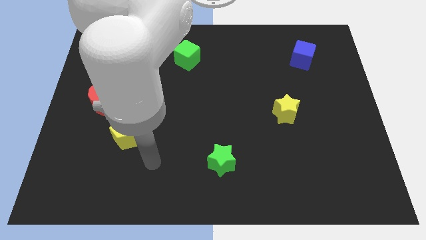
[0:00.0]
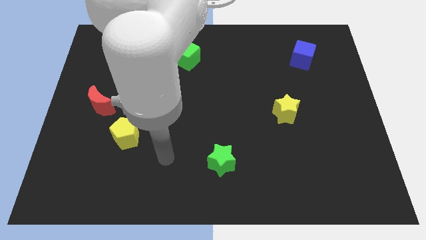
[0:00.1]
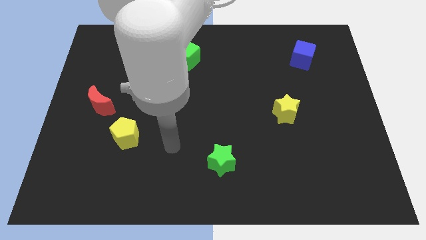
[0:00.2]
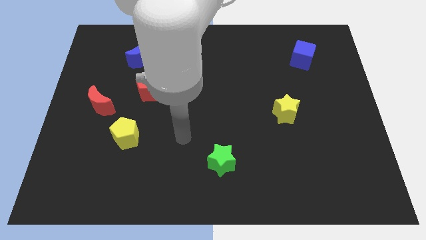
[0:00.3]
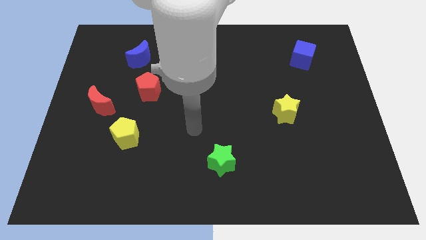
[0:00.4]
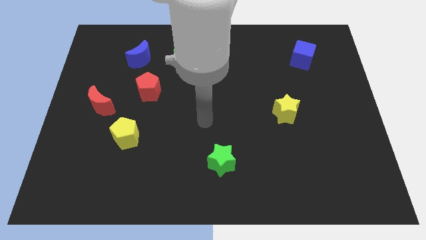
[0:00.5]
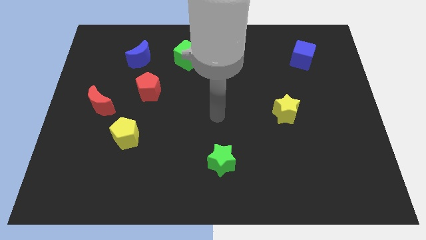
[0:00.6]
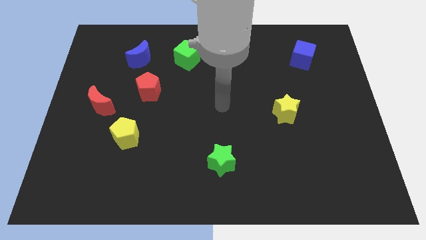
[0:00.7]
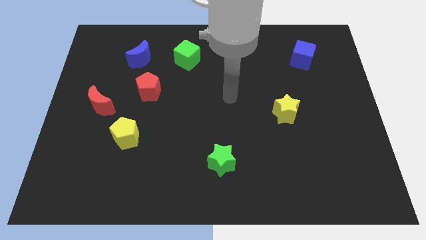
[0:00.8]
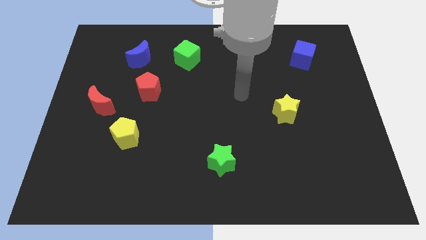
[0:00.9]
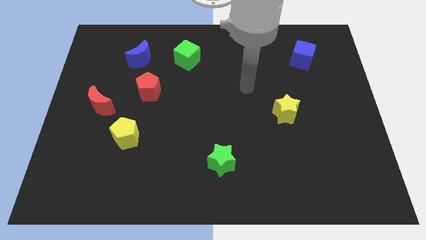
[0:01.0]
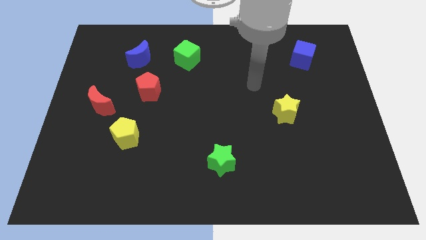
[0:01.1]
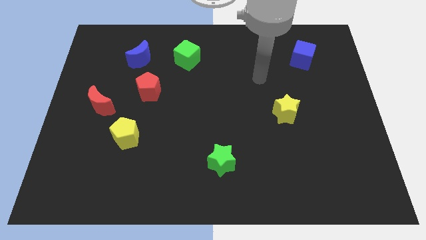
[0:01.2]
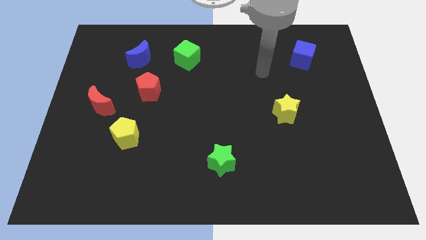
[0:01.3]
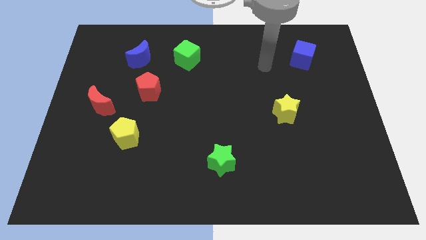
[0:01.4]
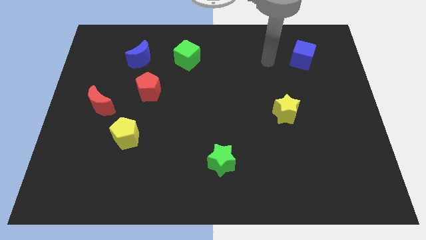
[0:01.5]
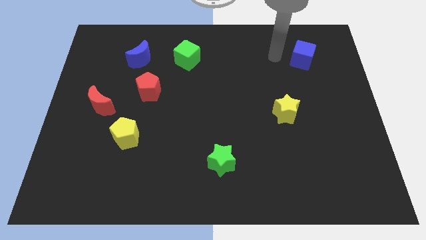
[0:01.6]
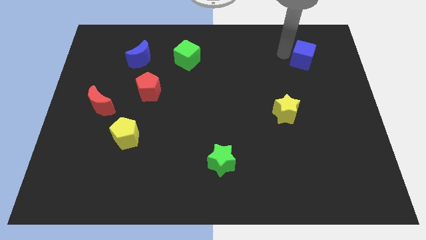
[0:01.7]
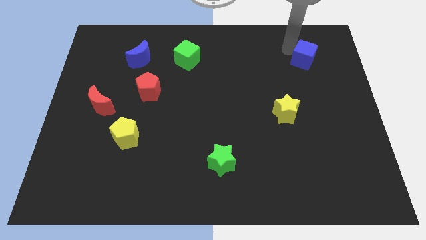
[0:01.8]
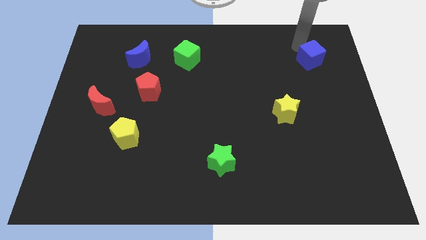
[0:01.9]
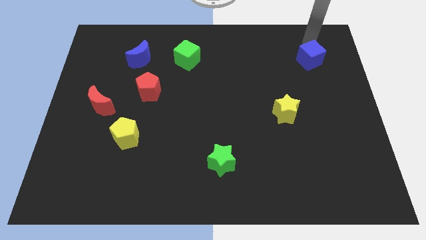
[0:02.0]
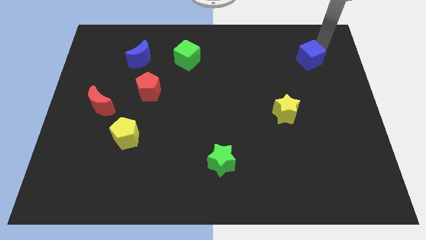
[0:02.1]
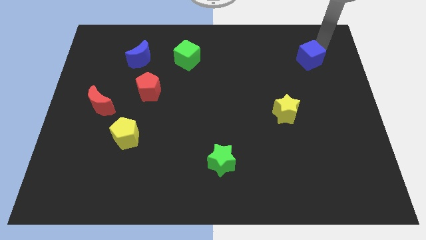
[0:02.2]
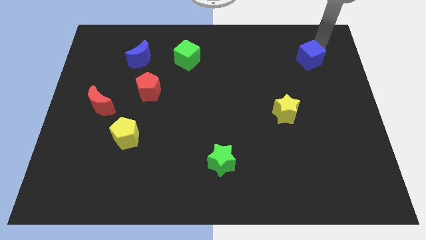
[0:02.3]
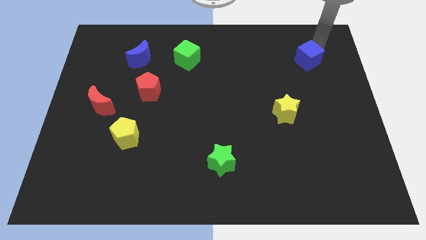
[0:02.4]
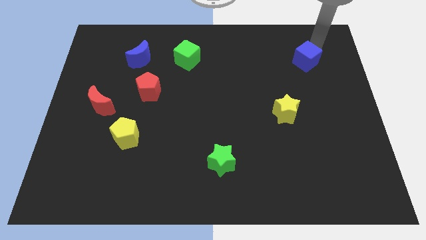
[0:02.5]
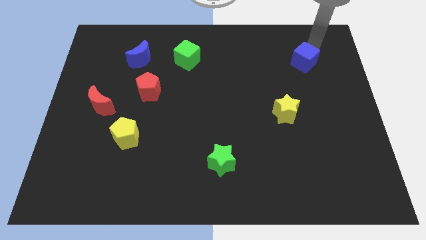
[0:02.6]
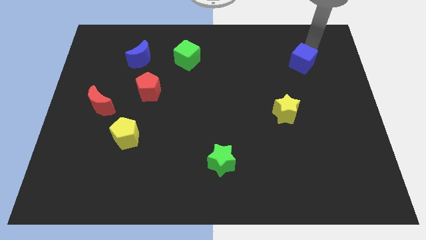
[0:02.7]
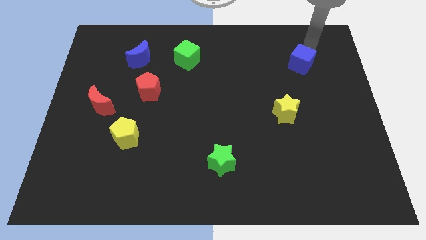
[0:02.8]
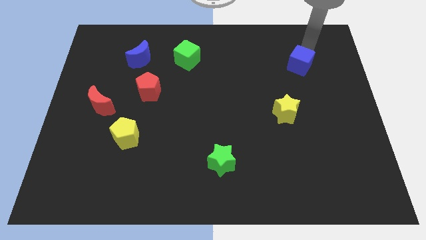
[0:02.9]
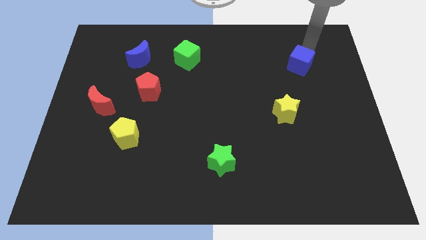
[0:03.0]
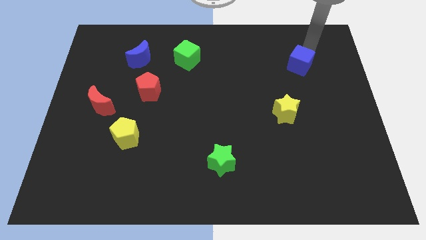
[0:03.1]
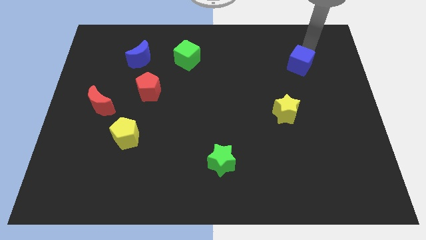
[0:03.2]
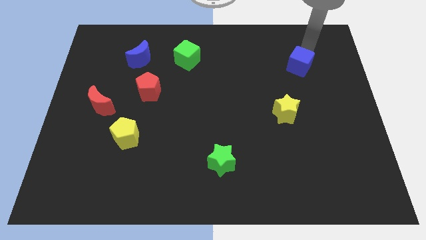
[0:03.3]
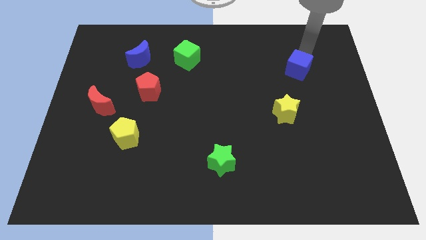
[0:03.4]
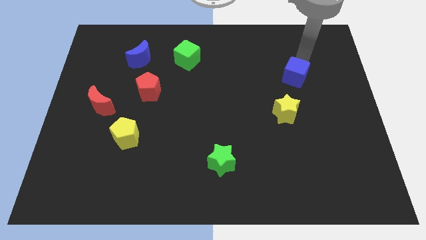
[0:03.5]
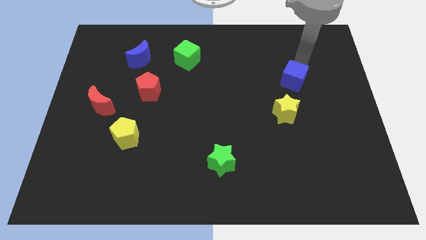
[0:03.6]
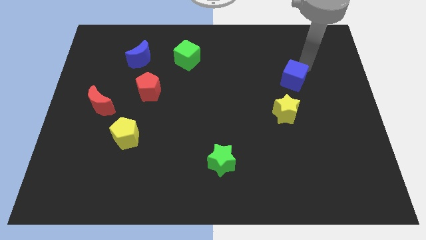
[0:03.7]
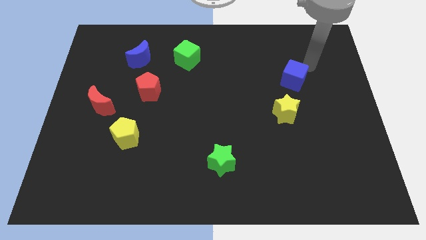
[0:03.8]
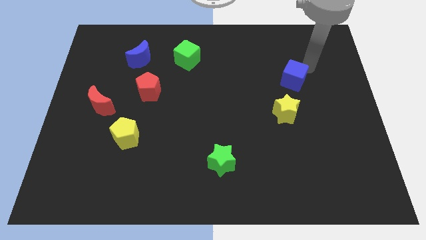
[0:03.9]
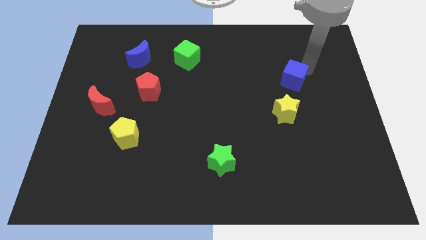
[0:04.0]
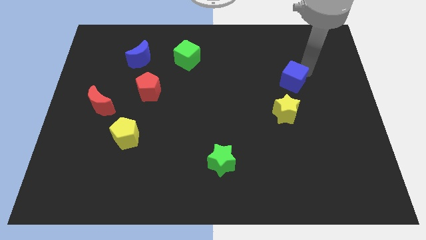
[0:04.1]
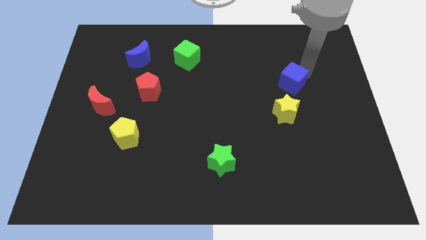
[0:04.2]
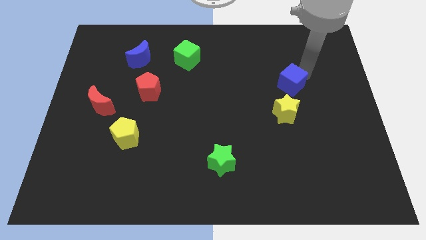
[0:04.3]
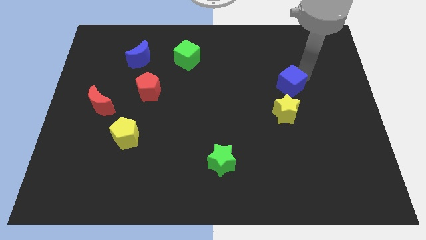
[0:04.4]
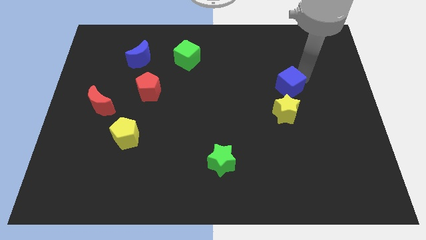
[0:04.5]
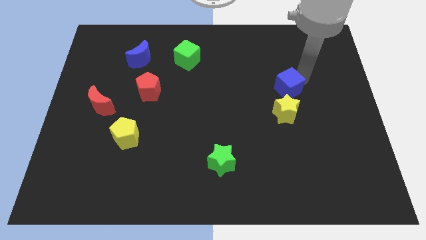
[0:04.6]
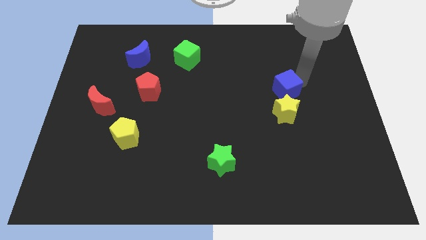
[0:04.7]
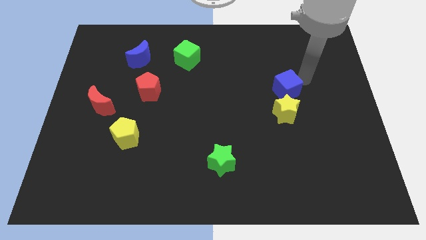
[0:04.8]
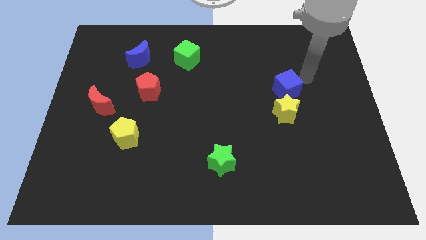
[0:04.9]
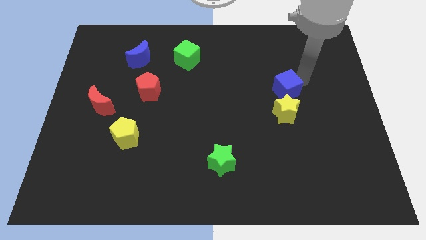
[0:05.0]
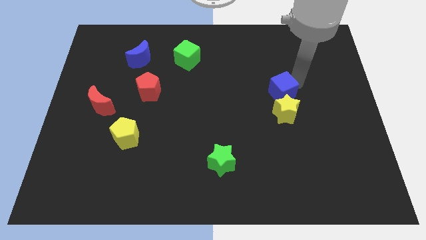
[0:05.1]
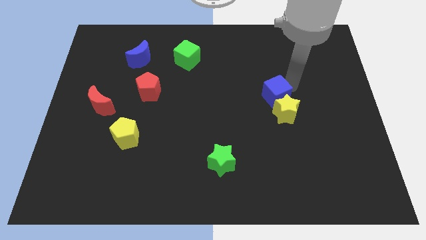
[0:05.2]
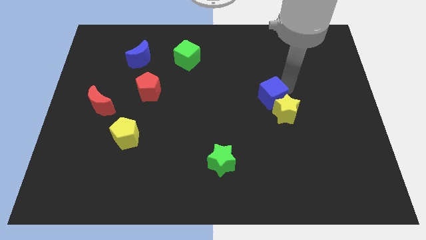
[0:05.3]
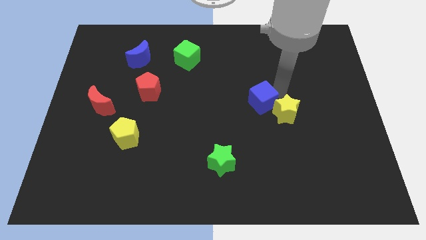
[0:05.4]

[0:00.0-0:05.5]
put the blue cube to the left of the yellow star
